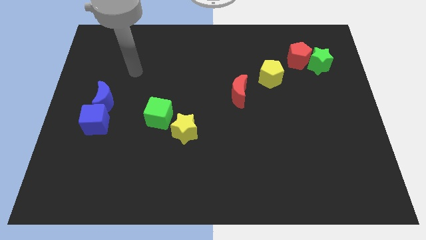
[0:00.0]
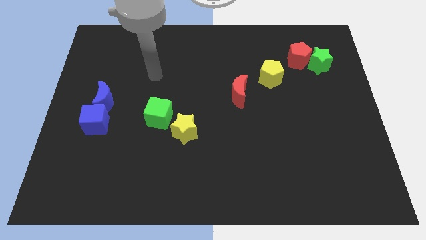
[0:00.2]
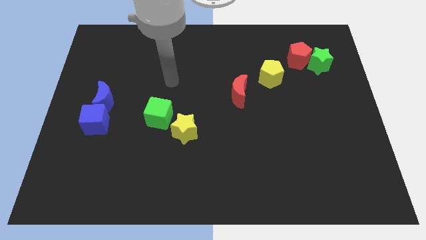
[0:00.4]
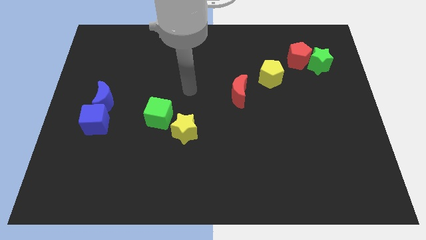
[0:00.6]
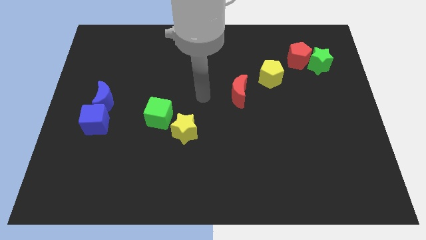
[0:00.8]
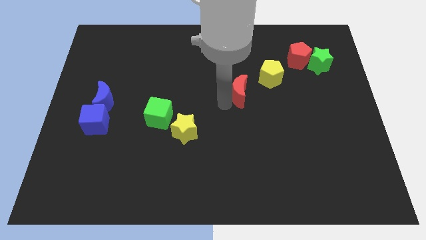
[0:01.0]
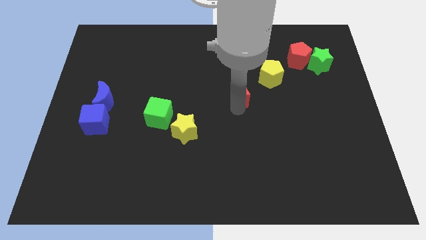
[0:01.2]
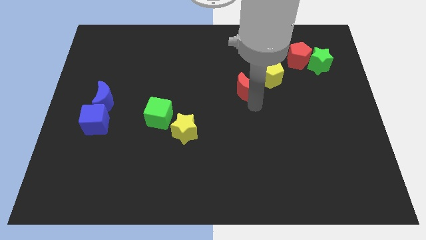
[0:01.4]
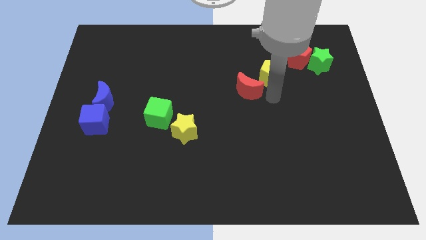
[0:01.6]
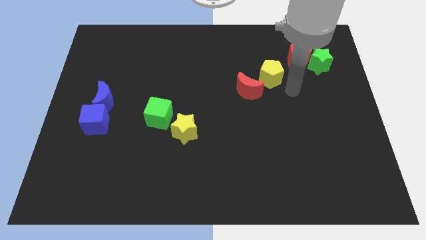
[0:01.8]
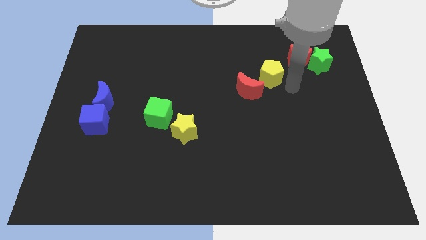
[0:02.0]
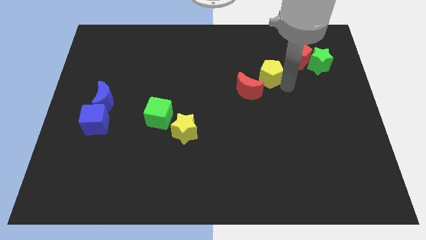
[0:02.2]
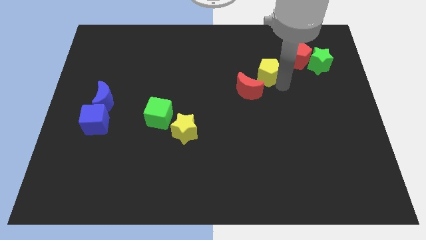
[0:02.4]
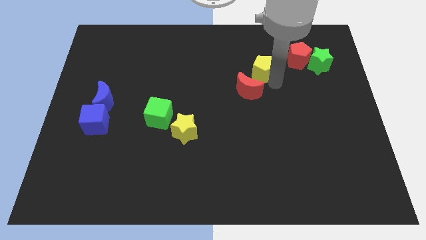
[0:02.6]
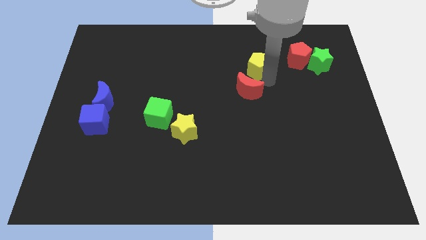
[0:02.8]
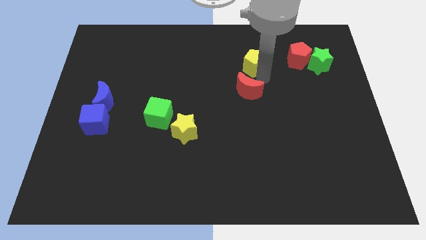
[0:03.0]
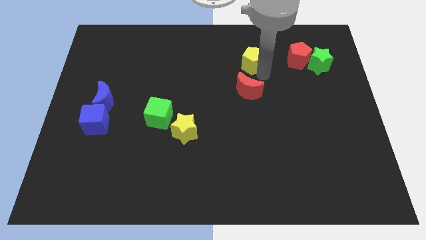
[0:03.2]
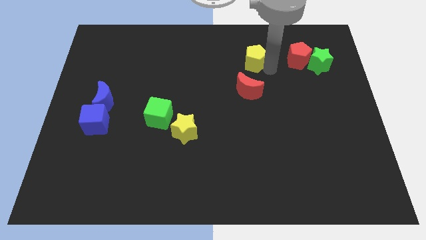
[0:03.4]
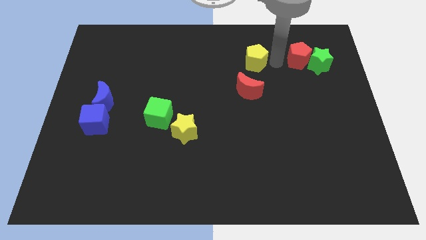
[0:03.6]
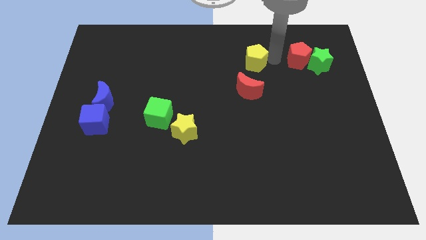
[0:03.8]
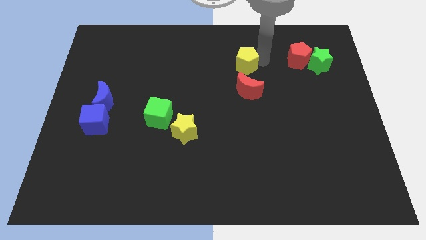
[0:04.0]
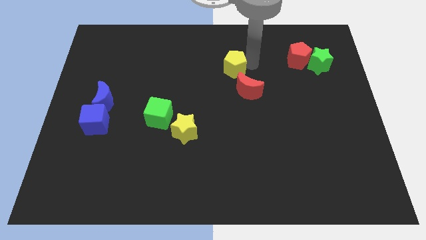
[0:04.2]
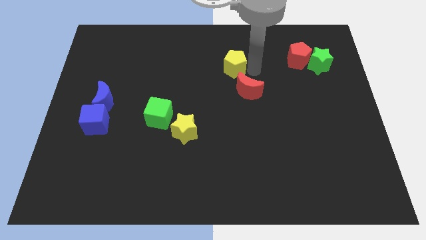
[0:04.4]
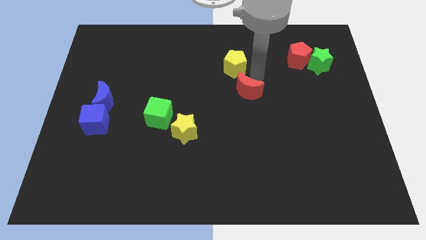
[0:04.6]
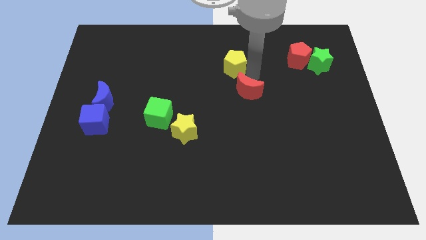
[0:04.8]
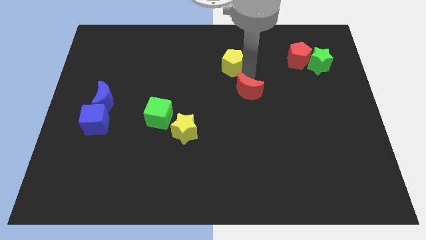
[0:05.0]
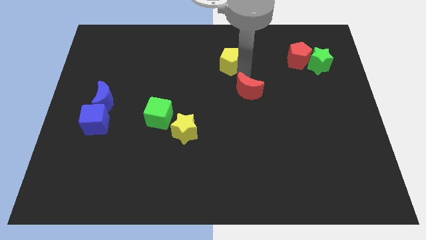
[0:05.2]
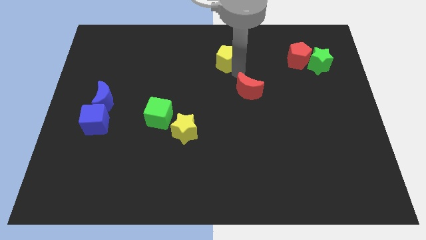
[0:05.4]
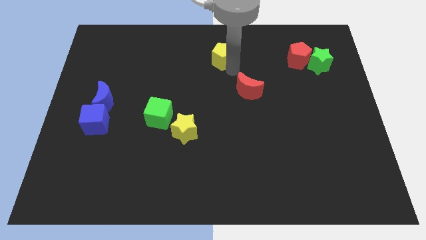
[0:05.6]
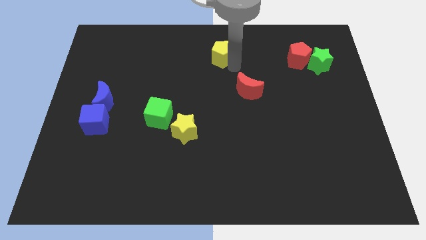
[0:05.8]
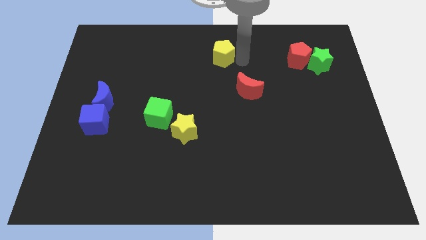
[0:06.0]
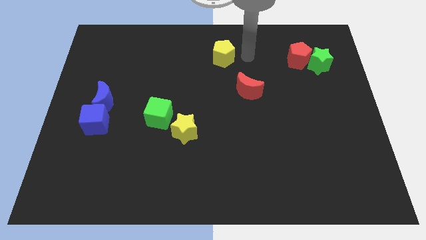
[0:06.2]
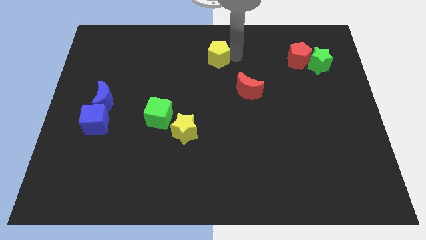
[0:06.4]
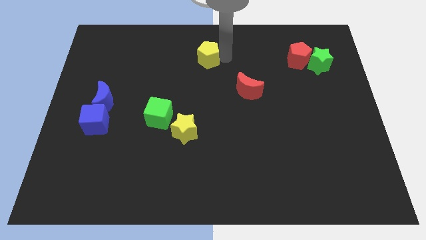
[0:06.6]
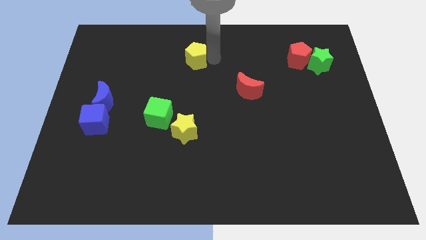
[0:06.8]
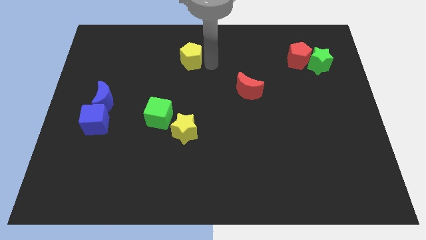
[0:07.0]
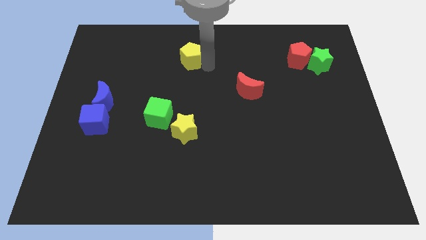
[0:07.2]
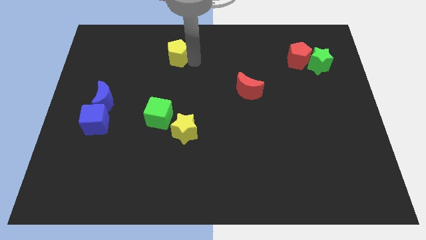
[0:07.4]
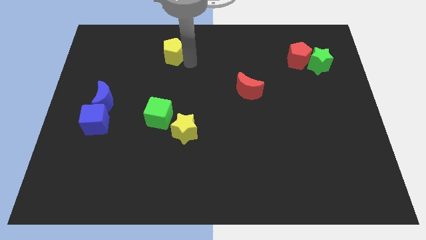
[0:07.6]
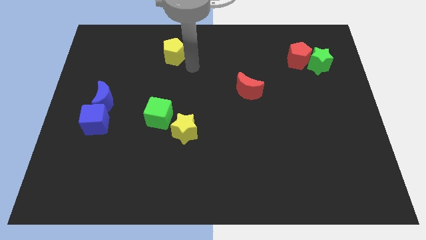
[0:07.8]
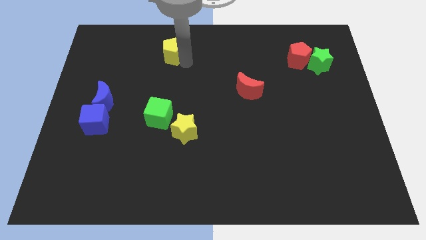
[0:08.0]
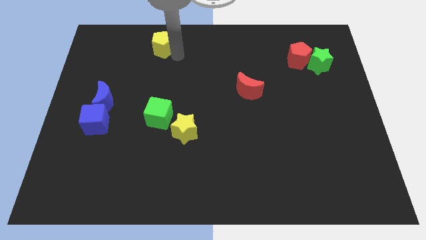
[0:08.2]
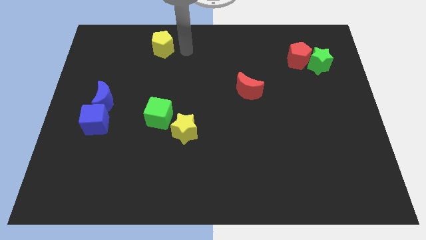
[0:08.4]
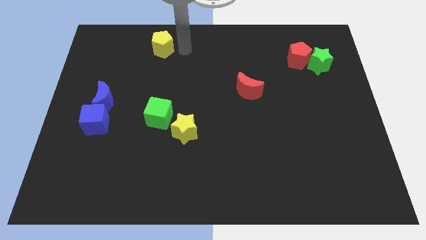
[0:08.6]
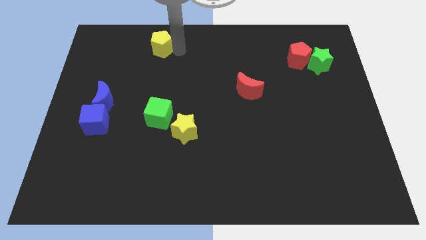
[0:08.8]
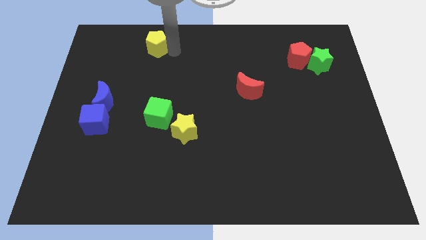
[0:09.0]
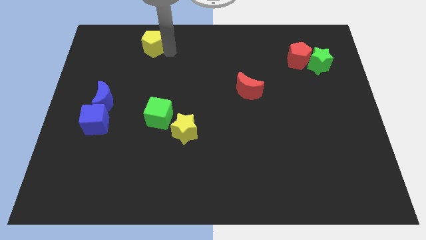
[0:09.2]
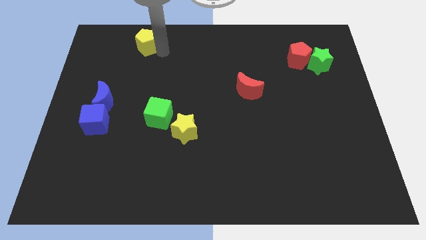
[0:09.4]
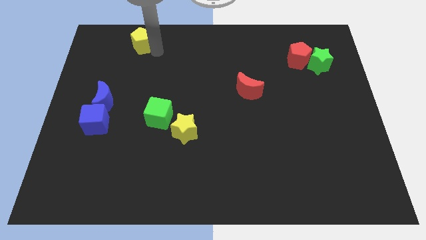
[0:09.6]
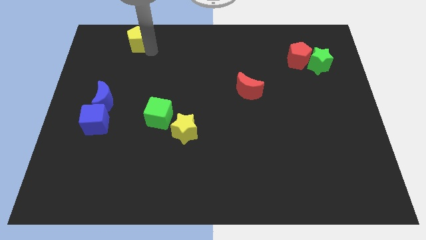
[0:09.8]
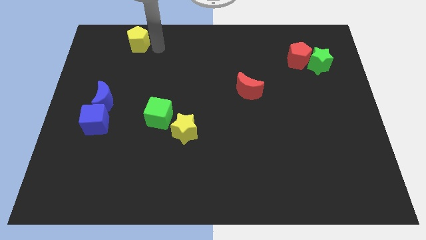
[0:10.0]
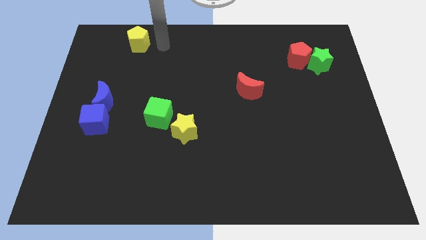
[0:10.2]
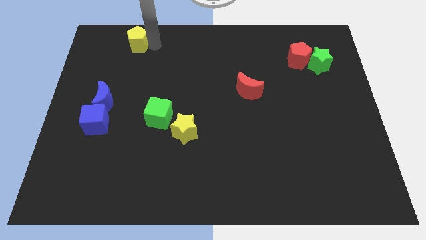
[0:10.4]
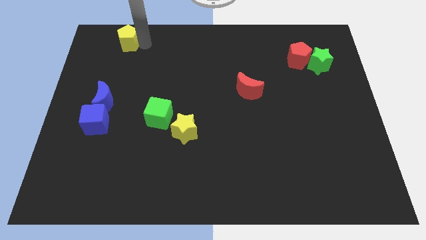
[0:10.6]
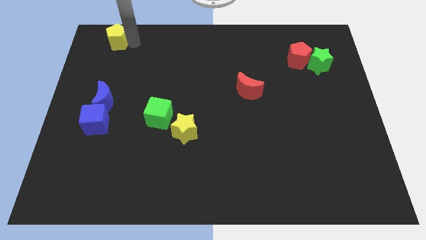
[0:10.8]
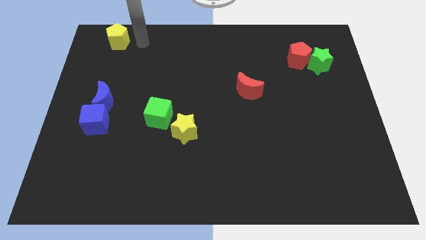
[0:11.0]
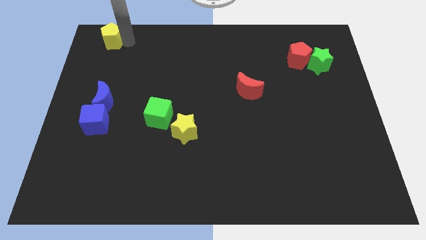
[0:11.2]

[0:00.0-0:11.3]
move the yellow pentagon to the top left

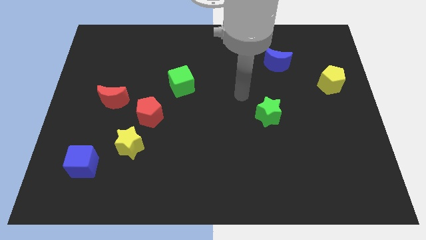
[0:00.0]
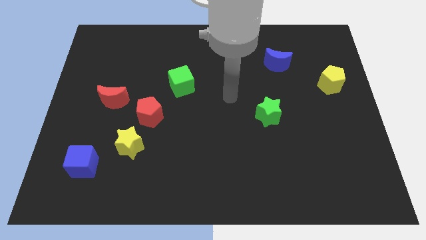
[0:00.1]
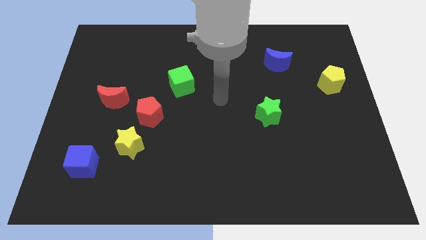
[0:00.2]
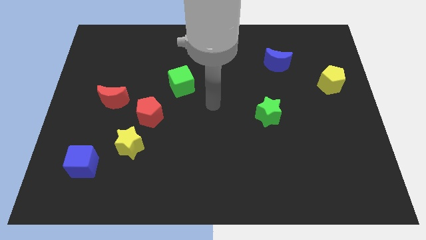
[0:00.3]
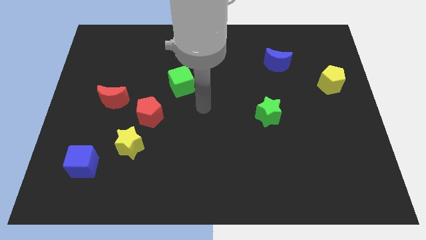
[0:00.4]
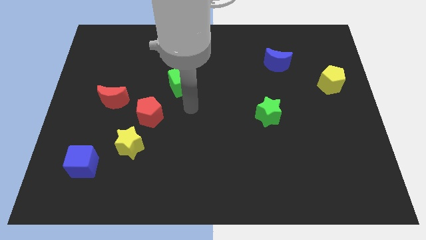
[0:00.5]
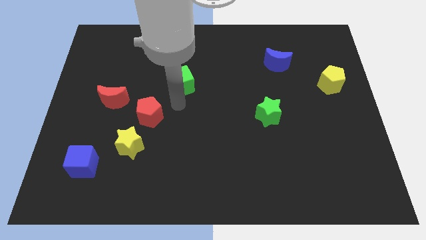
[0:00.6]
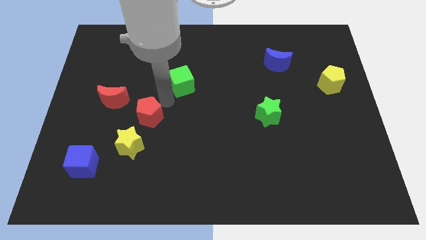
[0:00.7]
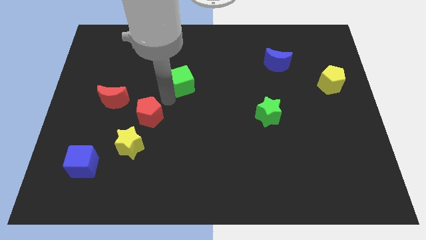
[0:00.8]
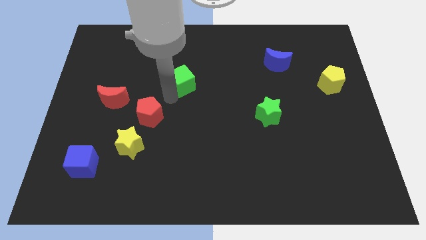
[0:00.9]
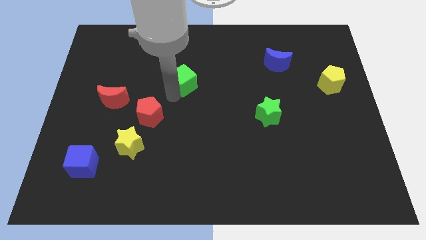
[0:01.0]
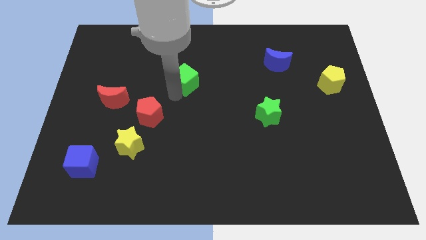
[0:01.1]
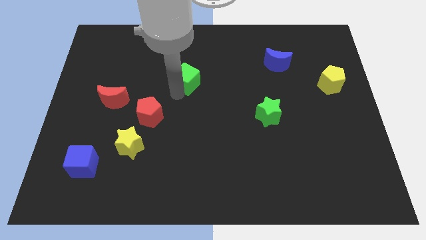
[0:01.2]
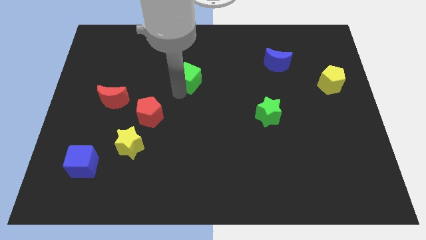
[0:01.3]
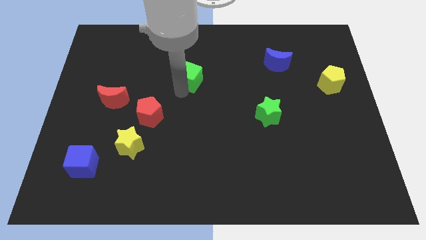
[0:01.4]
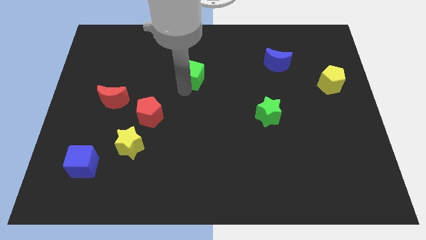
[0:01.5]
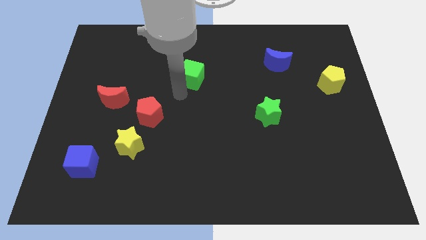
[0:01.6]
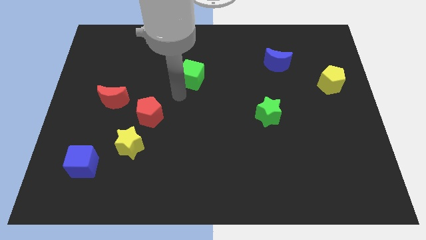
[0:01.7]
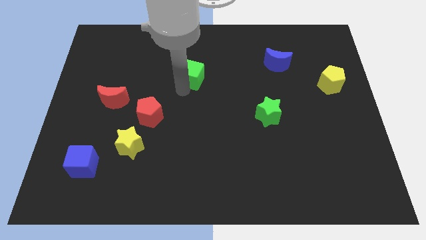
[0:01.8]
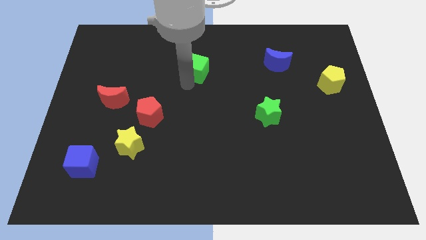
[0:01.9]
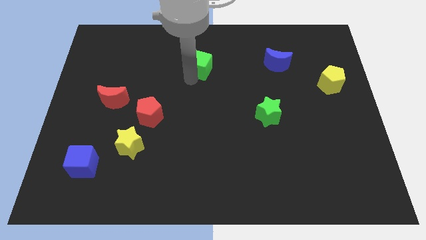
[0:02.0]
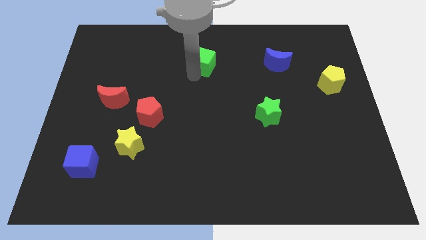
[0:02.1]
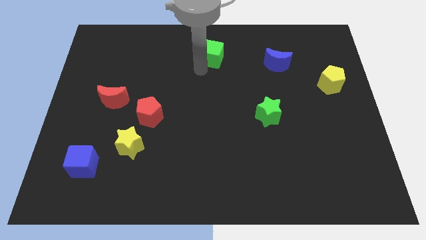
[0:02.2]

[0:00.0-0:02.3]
push the green cube to the towards your base
